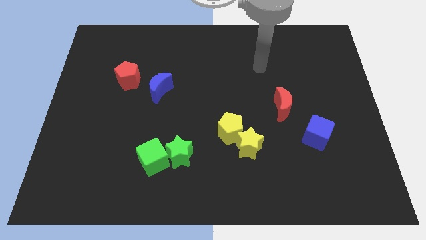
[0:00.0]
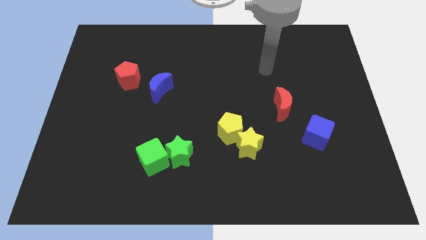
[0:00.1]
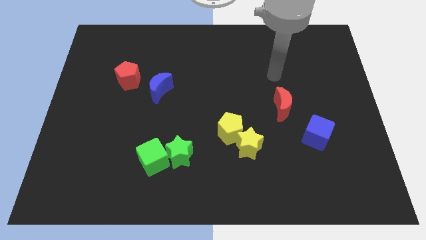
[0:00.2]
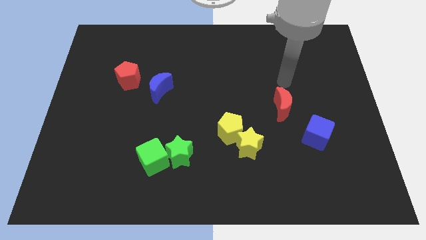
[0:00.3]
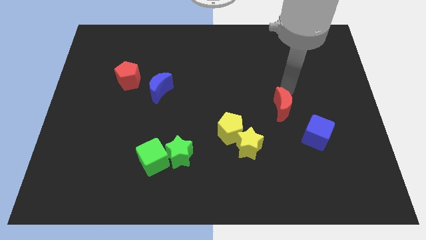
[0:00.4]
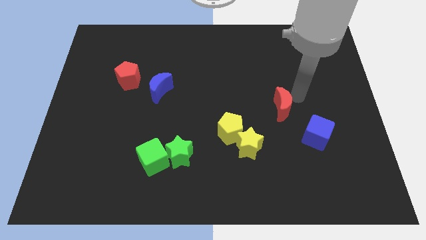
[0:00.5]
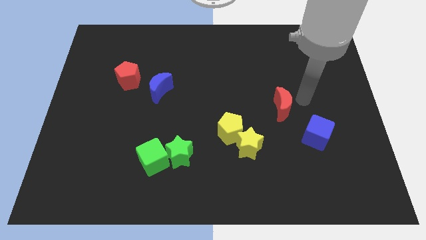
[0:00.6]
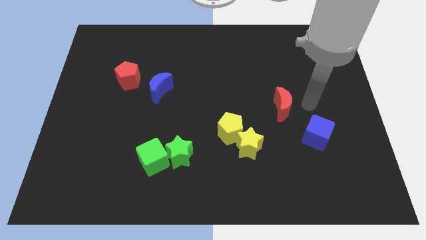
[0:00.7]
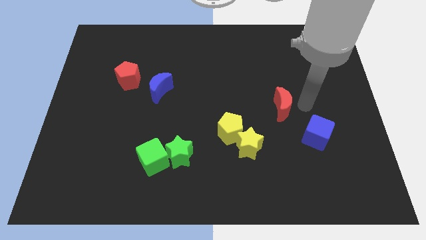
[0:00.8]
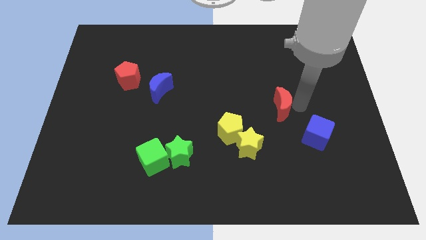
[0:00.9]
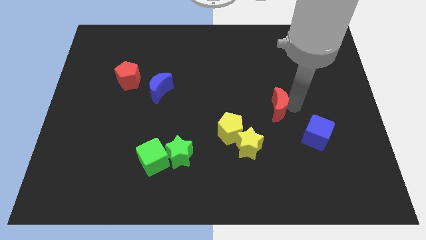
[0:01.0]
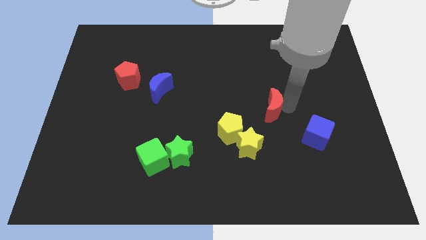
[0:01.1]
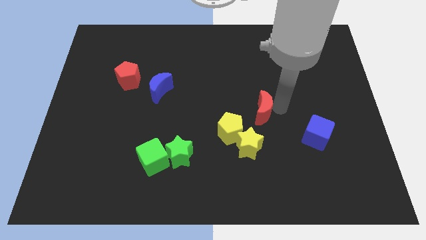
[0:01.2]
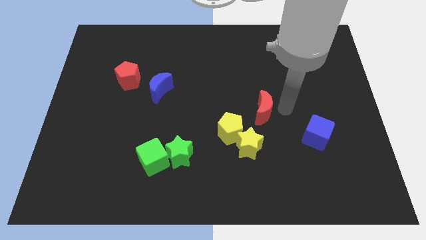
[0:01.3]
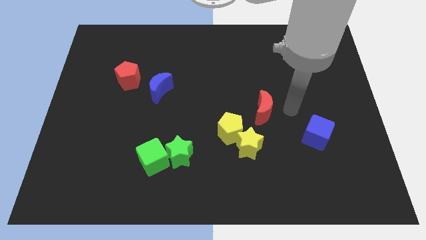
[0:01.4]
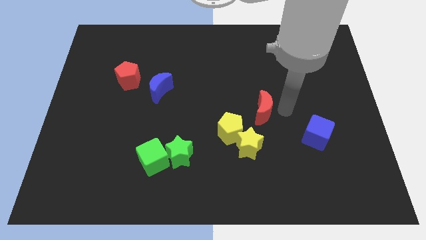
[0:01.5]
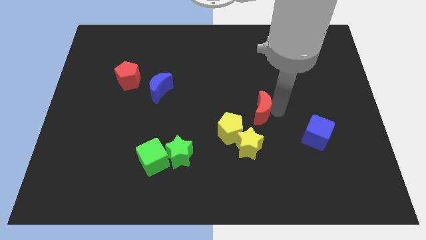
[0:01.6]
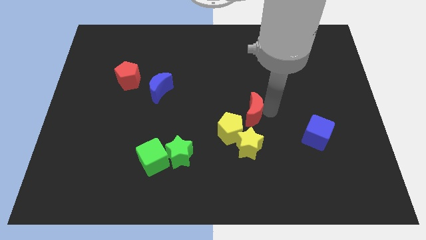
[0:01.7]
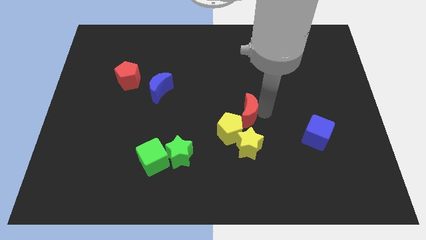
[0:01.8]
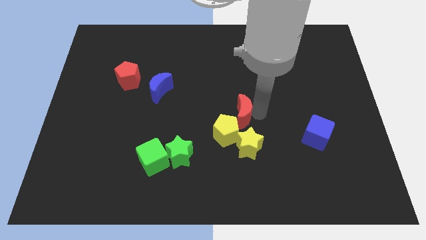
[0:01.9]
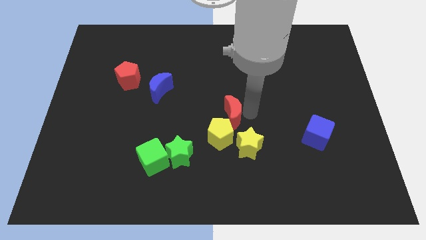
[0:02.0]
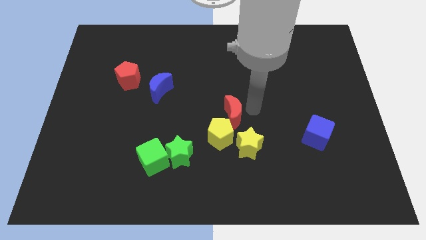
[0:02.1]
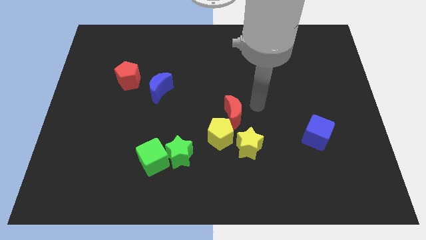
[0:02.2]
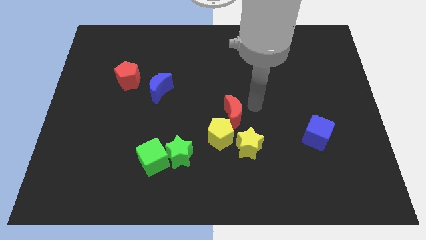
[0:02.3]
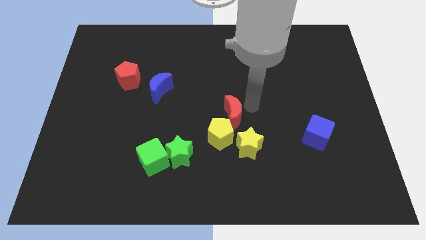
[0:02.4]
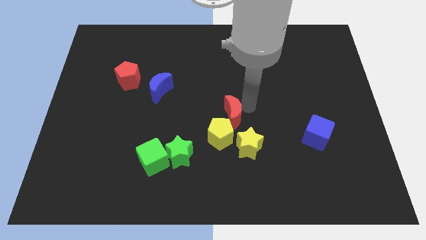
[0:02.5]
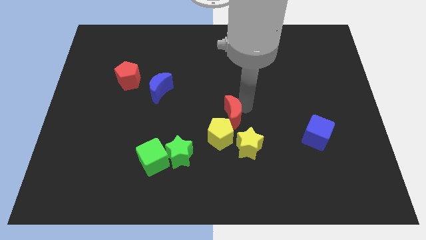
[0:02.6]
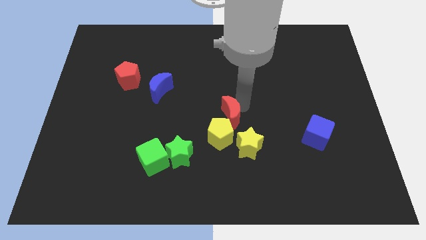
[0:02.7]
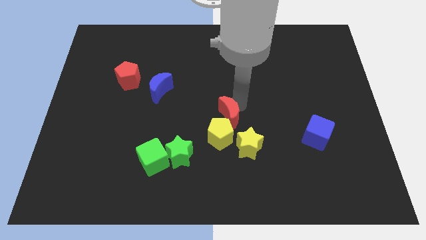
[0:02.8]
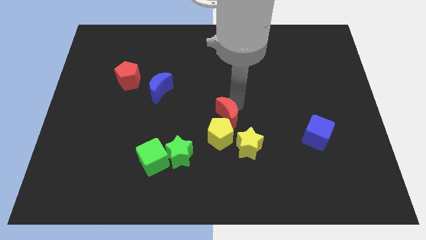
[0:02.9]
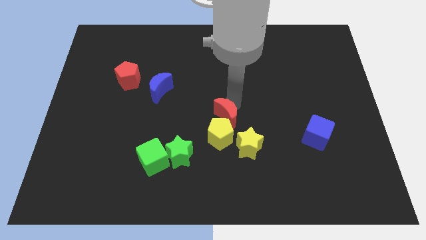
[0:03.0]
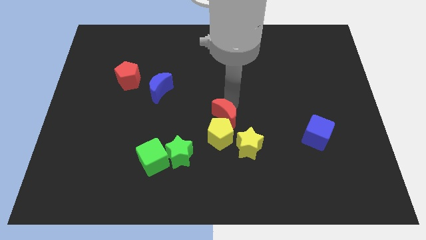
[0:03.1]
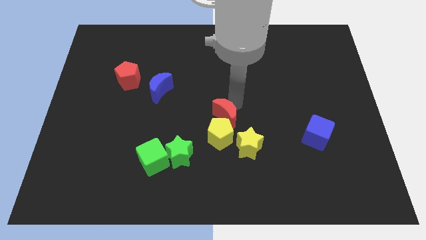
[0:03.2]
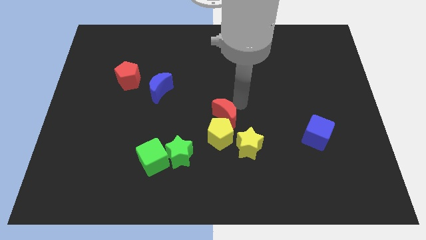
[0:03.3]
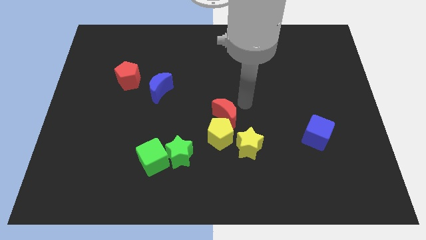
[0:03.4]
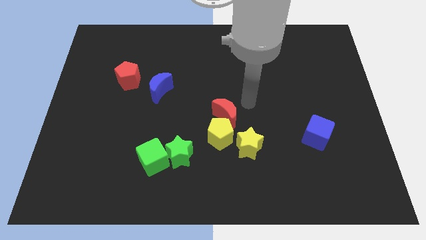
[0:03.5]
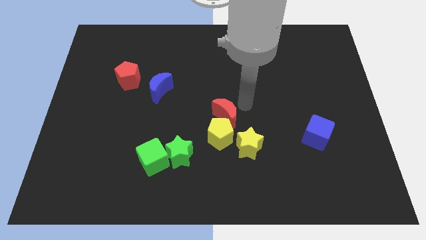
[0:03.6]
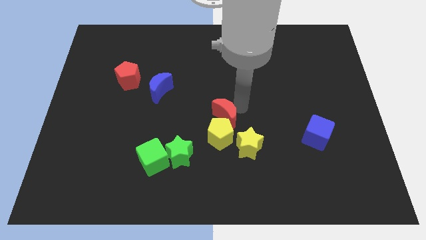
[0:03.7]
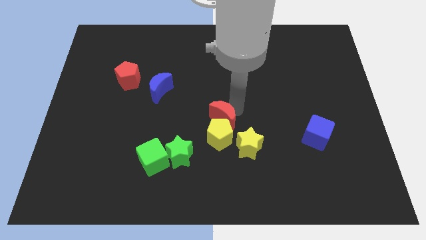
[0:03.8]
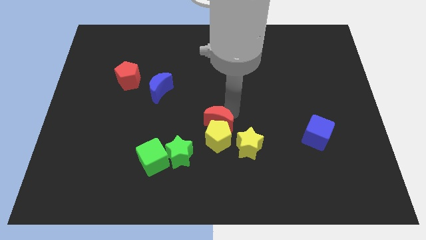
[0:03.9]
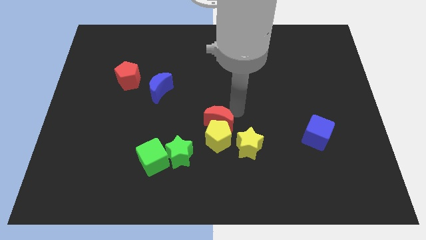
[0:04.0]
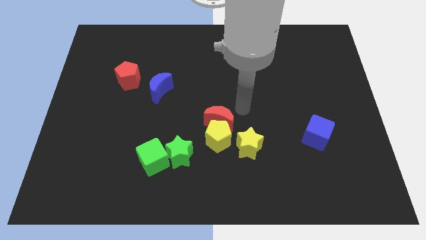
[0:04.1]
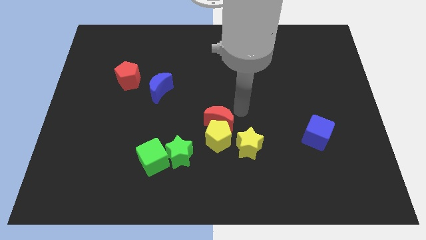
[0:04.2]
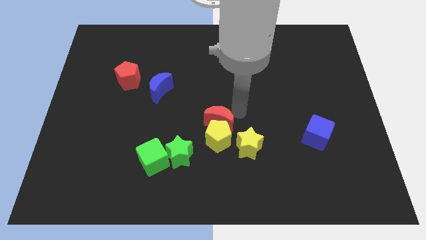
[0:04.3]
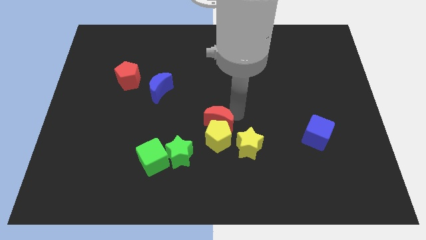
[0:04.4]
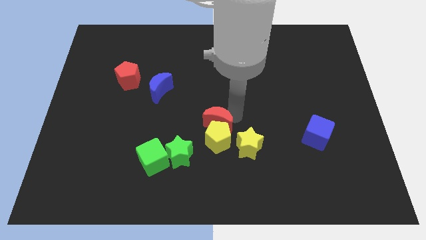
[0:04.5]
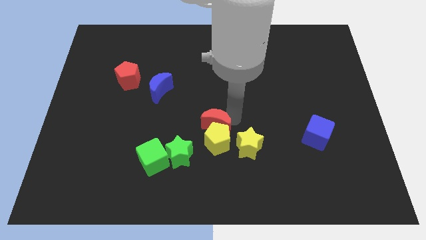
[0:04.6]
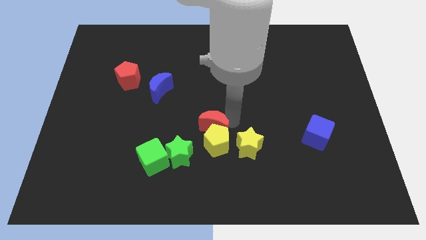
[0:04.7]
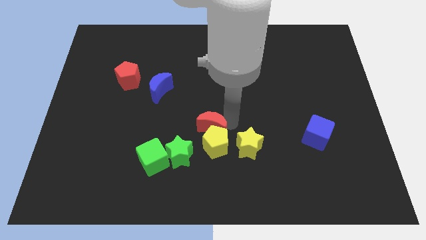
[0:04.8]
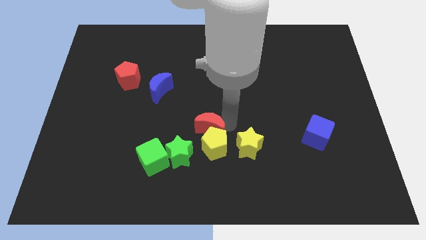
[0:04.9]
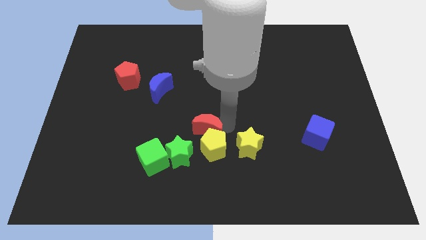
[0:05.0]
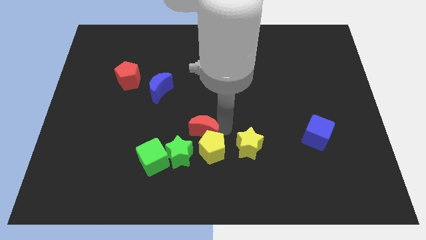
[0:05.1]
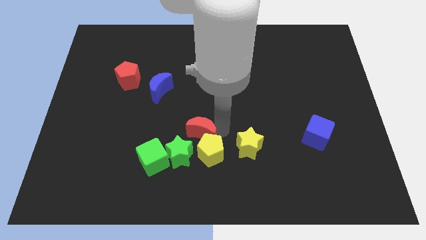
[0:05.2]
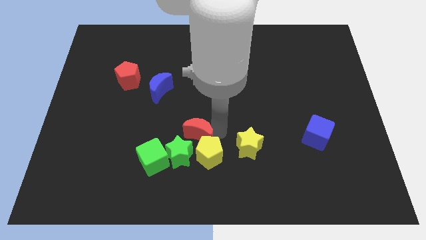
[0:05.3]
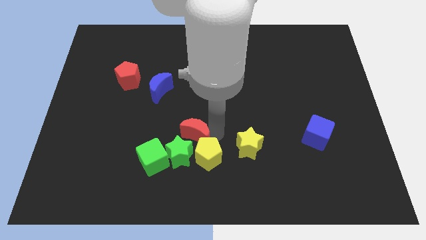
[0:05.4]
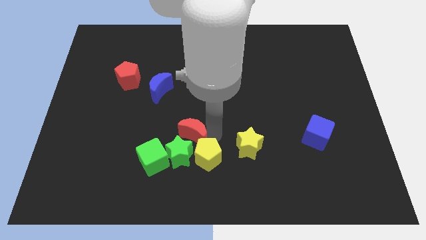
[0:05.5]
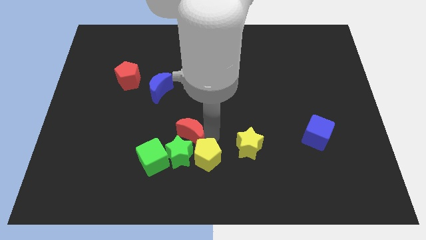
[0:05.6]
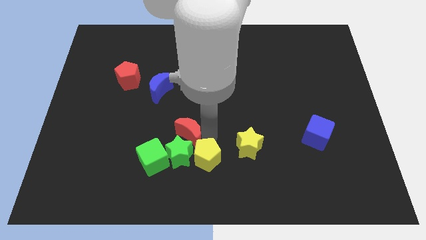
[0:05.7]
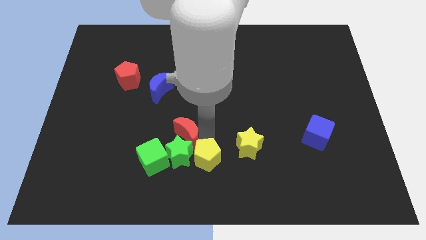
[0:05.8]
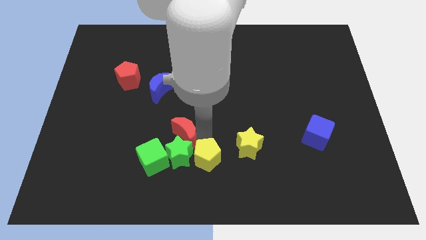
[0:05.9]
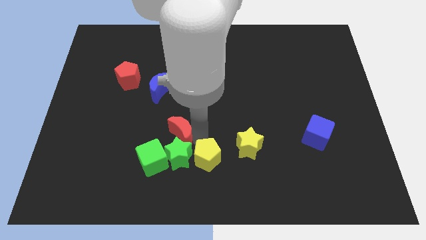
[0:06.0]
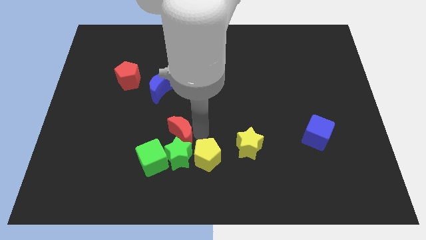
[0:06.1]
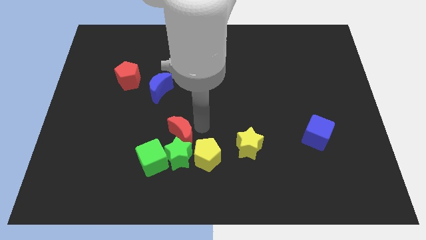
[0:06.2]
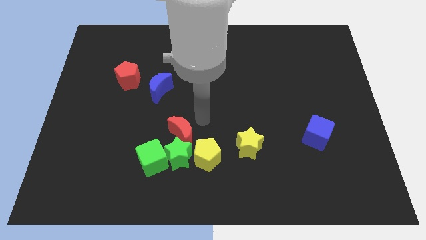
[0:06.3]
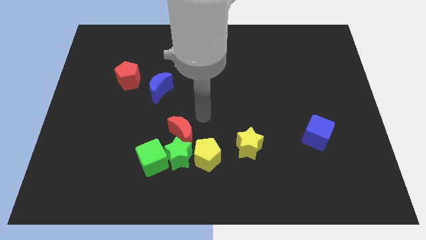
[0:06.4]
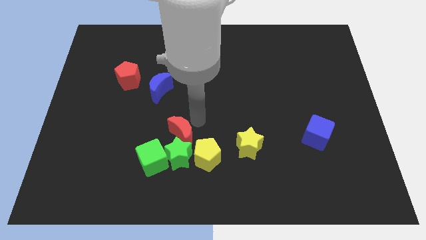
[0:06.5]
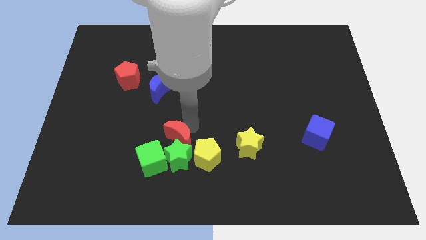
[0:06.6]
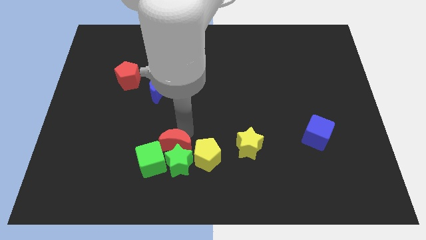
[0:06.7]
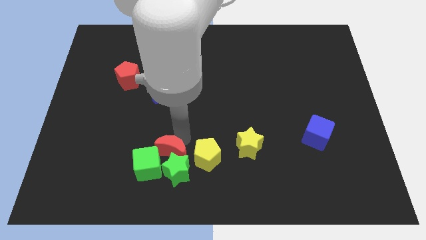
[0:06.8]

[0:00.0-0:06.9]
slide the red moon towards the green cube
